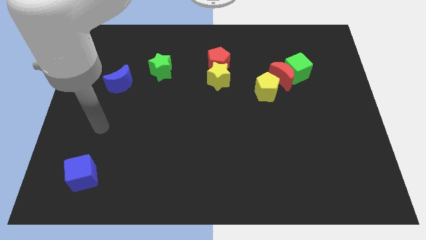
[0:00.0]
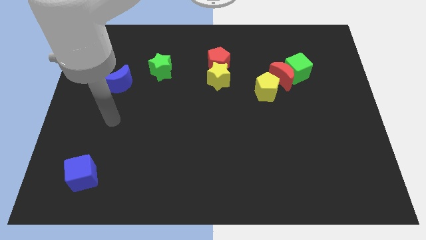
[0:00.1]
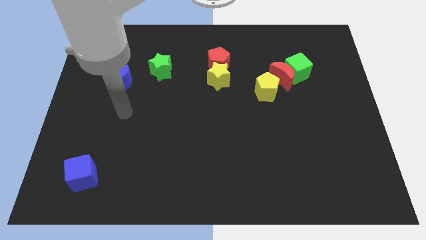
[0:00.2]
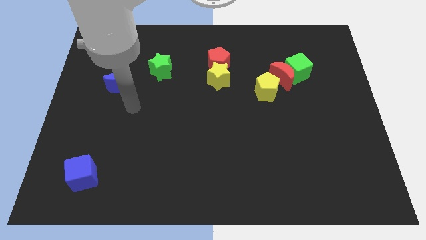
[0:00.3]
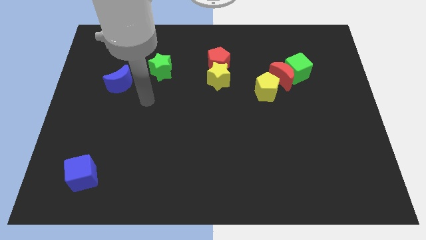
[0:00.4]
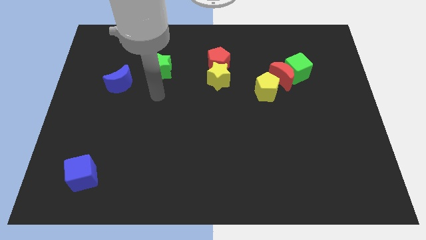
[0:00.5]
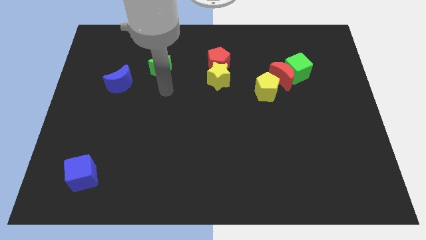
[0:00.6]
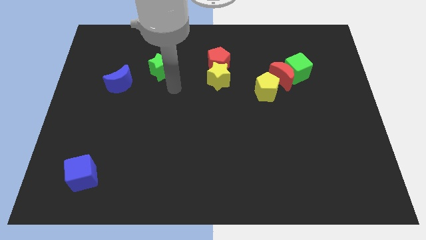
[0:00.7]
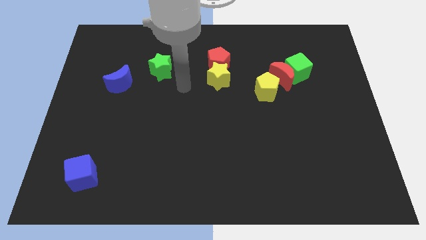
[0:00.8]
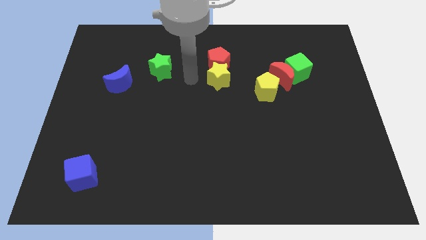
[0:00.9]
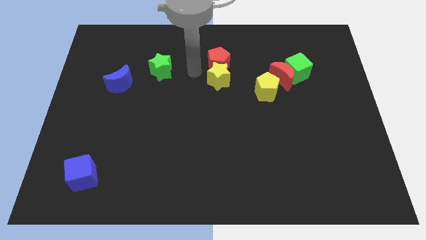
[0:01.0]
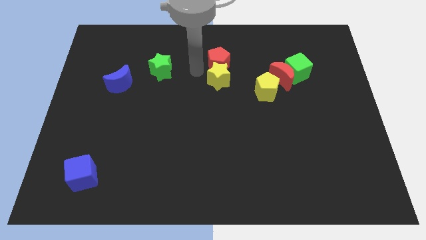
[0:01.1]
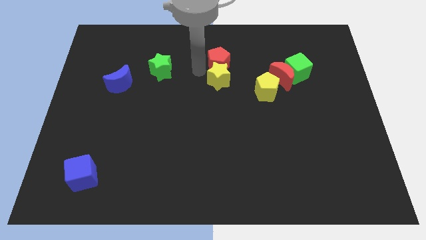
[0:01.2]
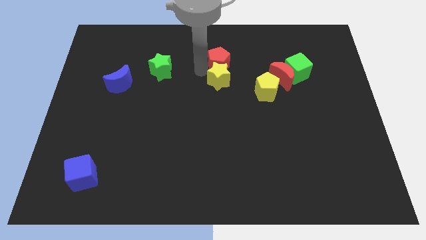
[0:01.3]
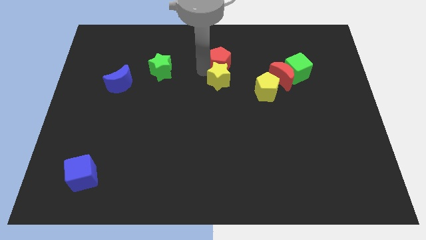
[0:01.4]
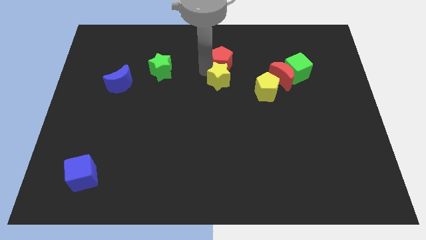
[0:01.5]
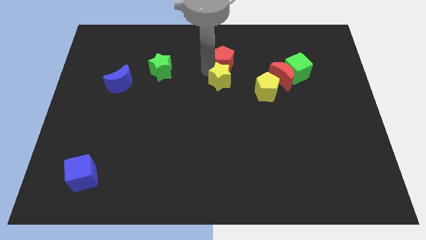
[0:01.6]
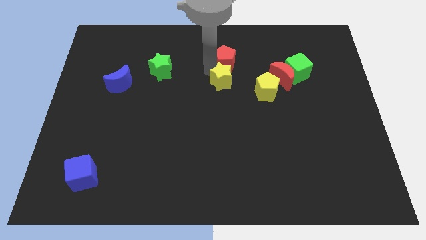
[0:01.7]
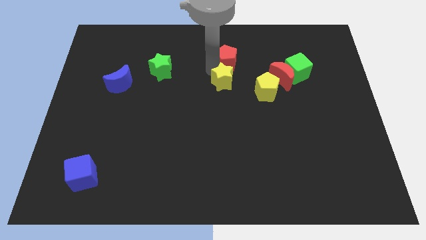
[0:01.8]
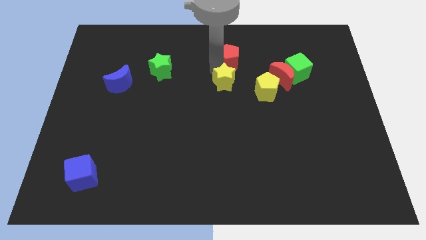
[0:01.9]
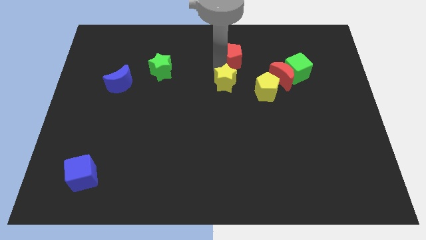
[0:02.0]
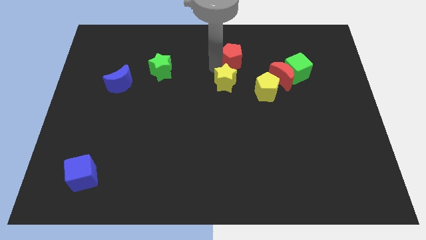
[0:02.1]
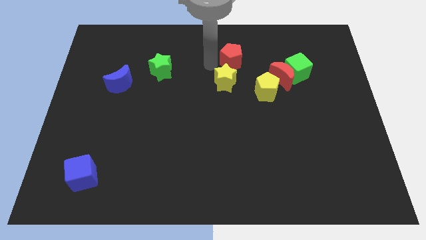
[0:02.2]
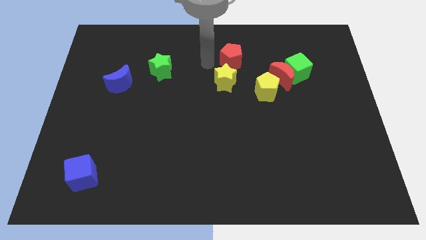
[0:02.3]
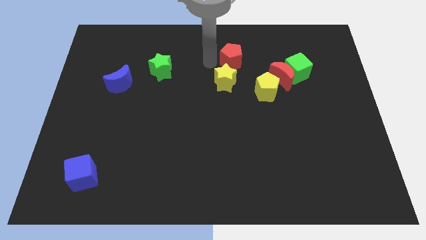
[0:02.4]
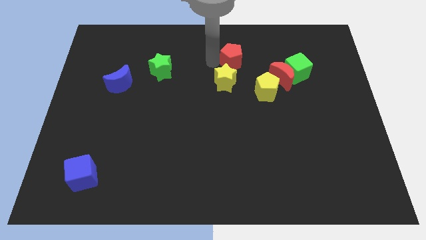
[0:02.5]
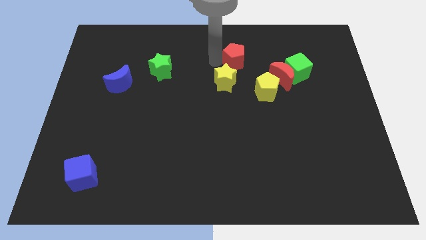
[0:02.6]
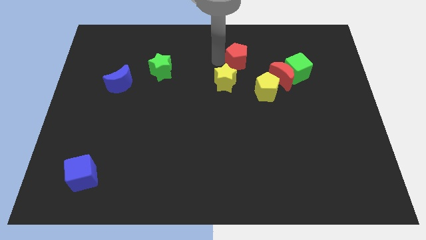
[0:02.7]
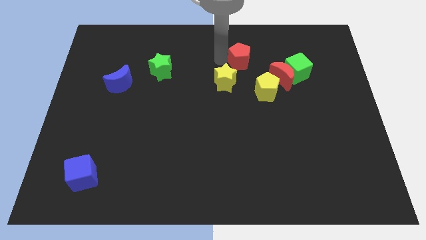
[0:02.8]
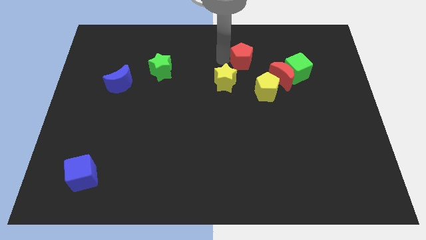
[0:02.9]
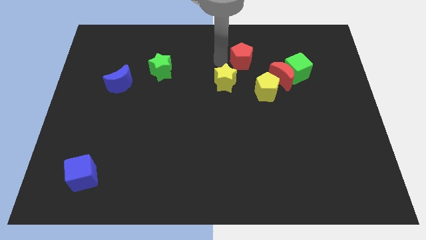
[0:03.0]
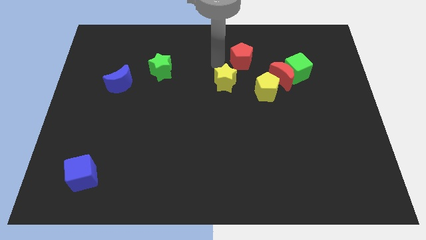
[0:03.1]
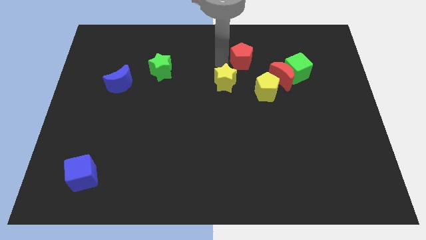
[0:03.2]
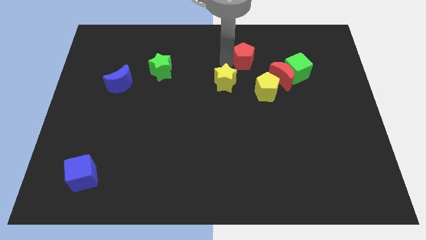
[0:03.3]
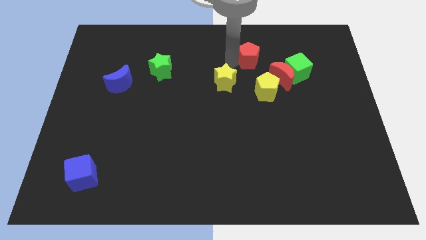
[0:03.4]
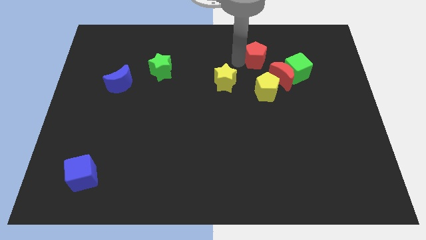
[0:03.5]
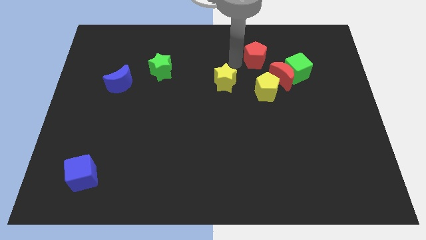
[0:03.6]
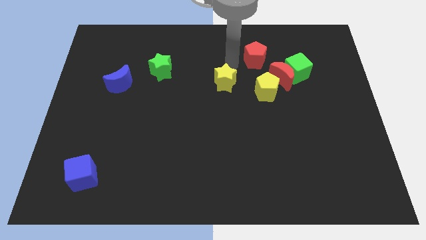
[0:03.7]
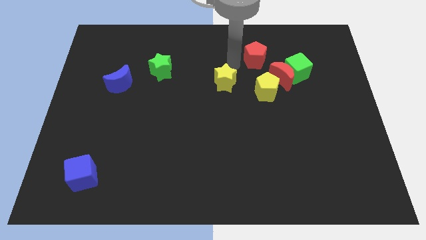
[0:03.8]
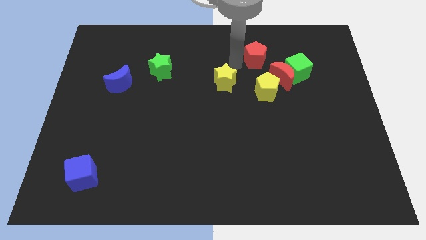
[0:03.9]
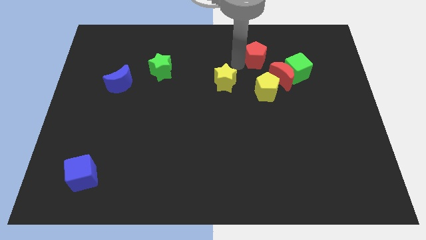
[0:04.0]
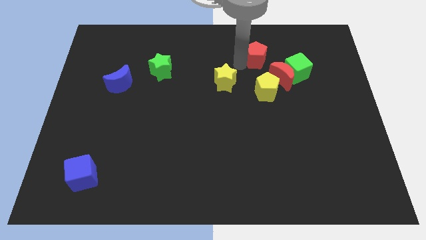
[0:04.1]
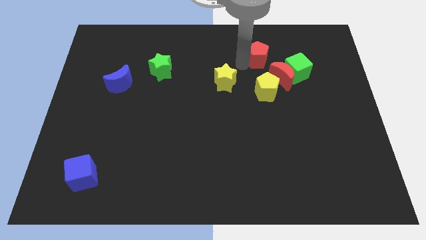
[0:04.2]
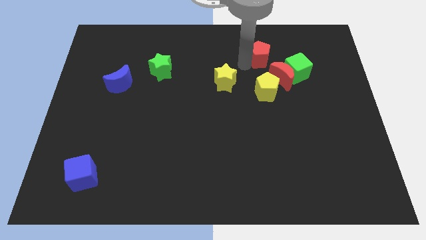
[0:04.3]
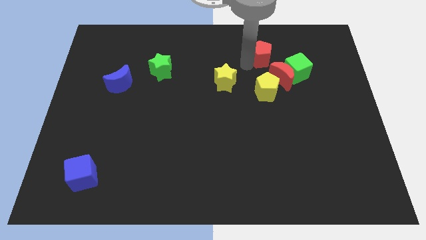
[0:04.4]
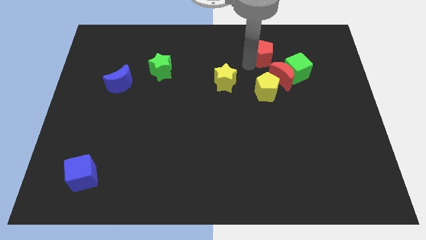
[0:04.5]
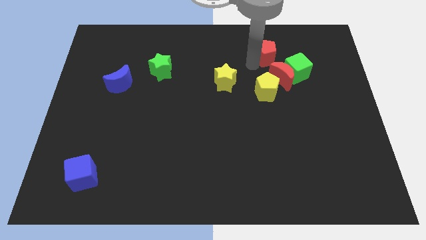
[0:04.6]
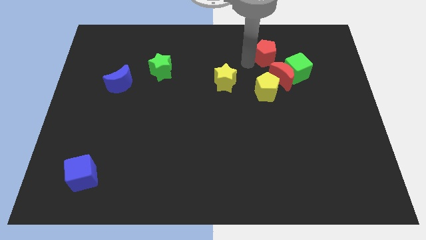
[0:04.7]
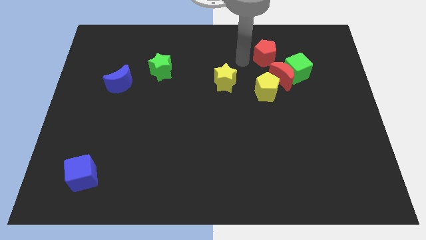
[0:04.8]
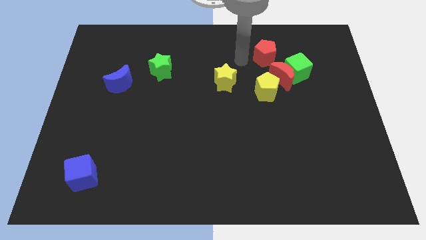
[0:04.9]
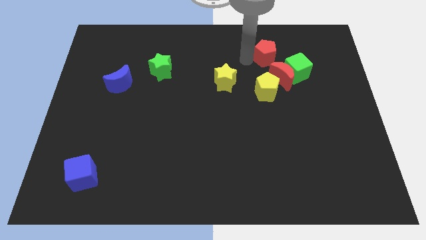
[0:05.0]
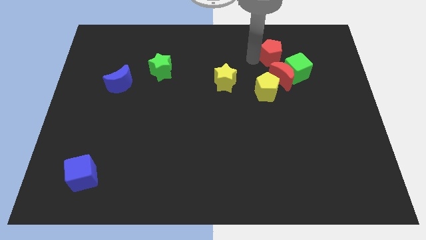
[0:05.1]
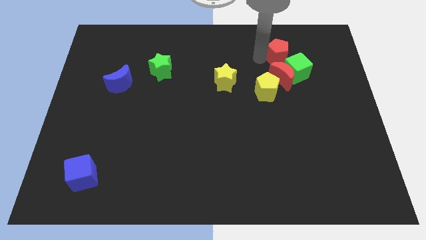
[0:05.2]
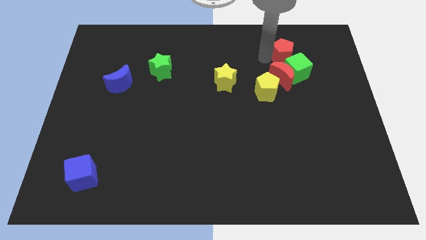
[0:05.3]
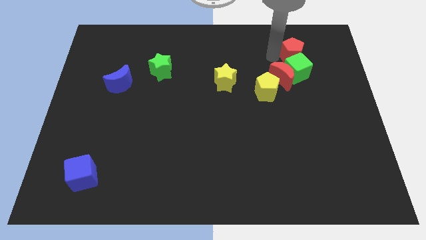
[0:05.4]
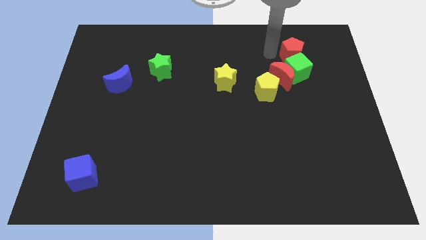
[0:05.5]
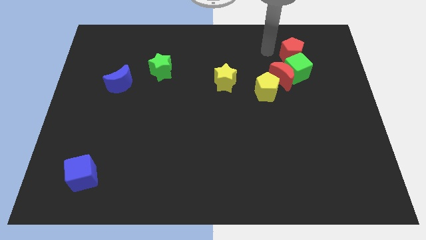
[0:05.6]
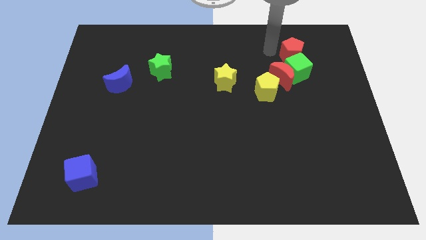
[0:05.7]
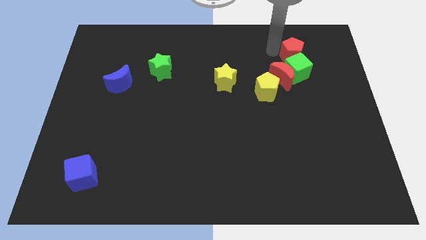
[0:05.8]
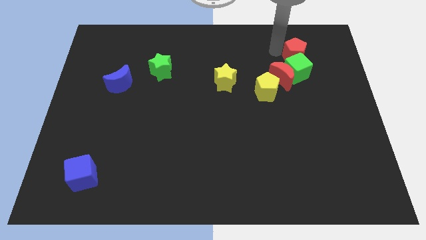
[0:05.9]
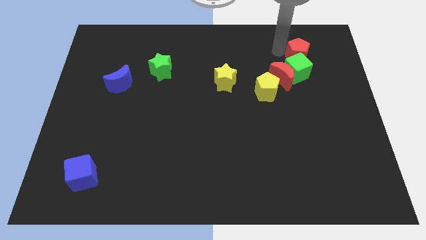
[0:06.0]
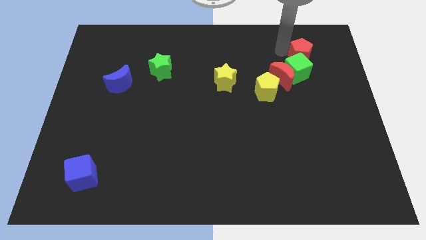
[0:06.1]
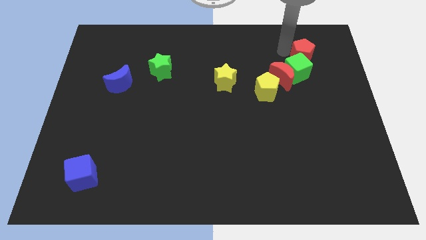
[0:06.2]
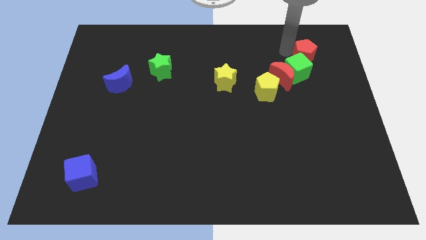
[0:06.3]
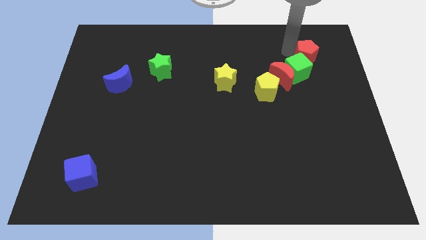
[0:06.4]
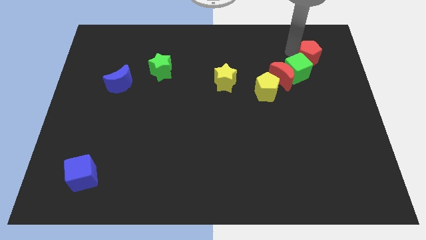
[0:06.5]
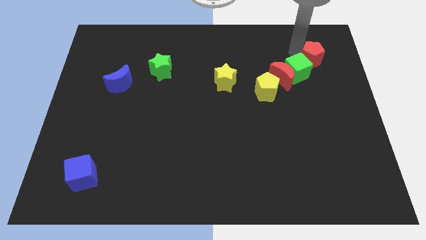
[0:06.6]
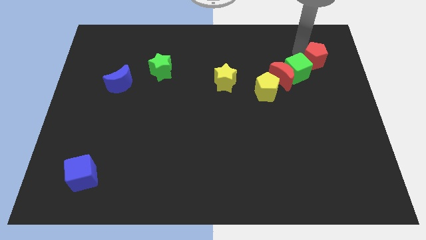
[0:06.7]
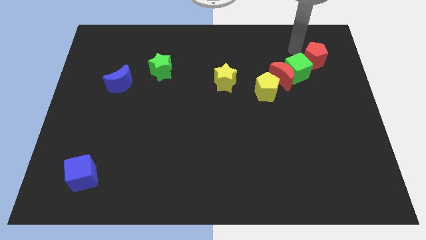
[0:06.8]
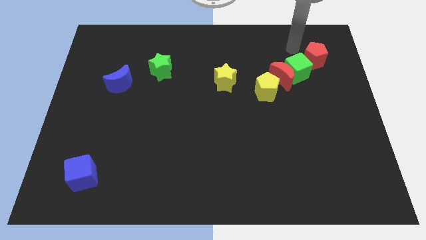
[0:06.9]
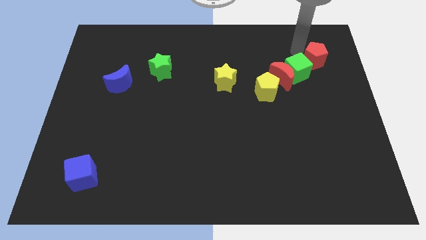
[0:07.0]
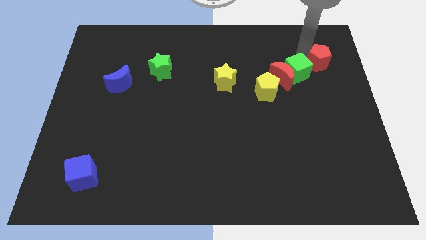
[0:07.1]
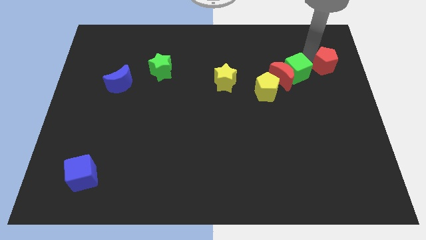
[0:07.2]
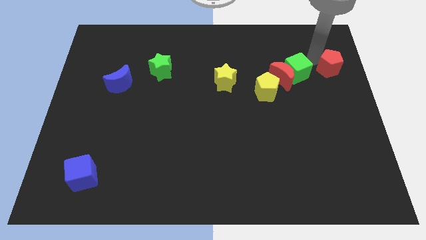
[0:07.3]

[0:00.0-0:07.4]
put the red pentagon to the right side
